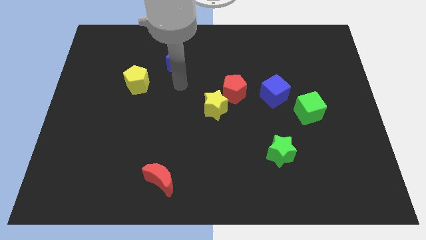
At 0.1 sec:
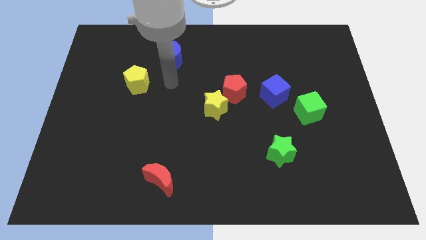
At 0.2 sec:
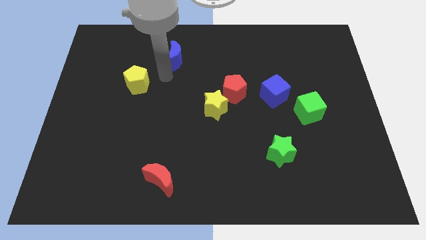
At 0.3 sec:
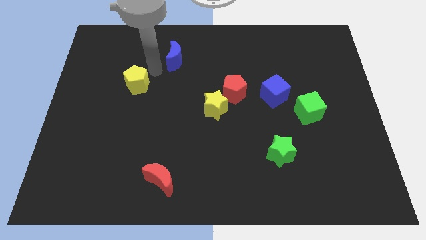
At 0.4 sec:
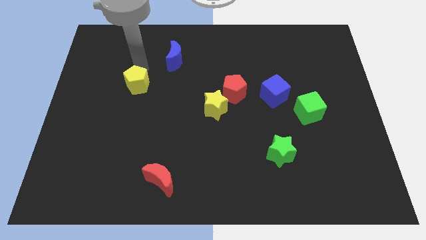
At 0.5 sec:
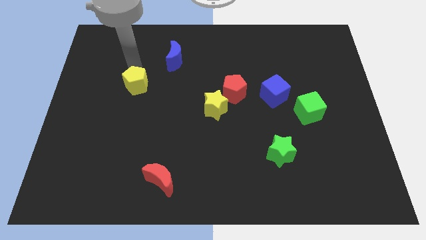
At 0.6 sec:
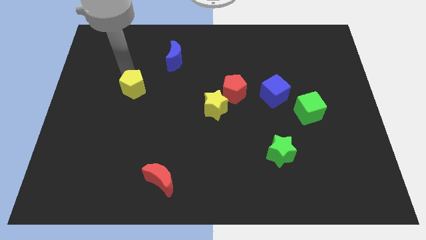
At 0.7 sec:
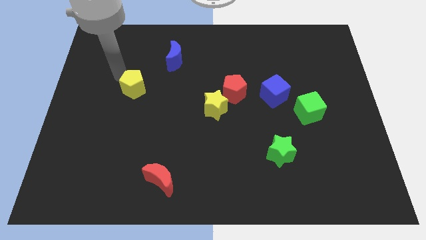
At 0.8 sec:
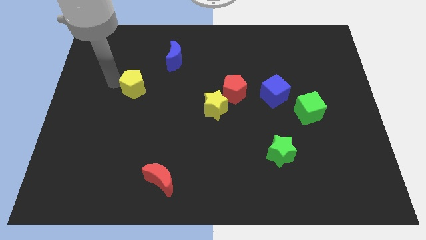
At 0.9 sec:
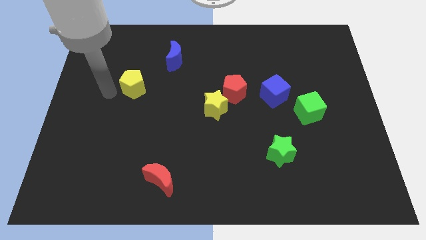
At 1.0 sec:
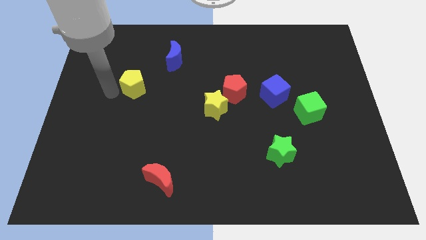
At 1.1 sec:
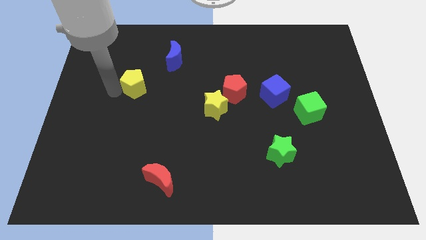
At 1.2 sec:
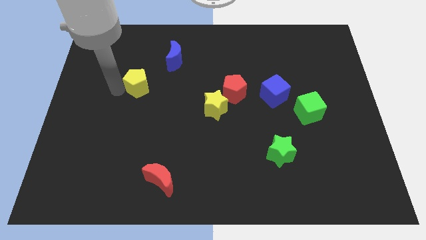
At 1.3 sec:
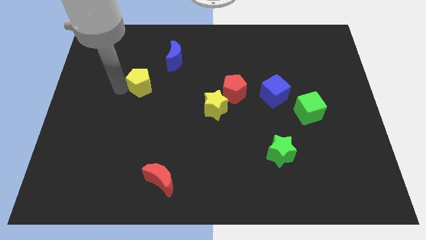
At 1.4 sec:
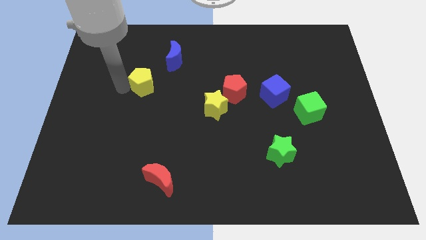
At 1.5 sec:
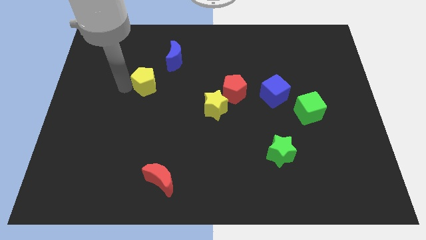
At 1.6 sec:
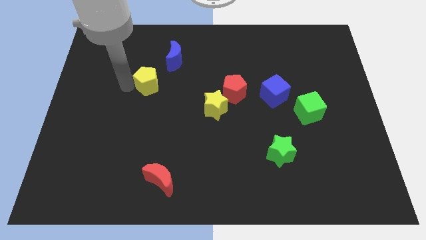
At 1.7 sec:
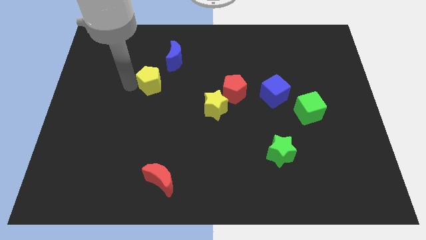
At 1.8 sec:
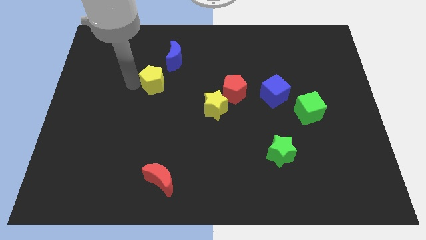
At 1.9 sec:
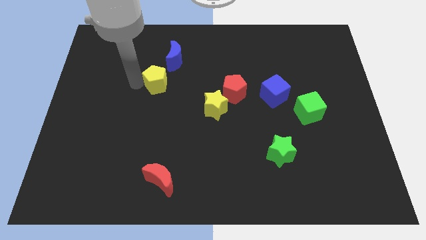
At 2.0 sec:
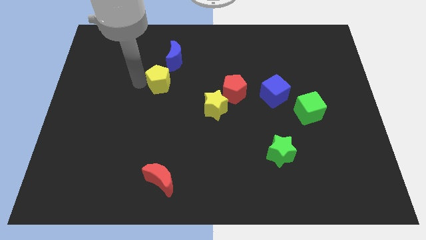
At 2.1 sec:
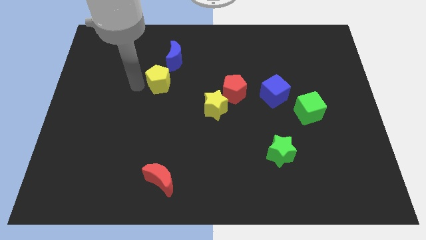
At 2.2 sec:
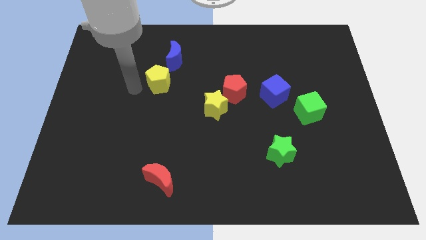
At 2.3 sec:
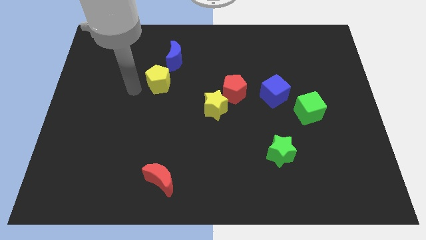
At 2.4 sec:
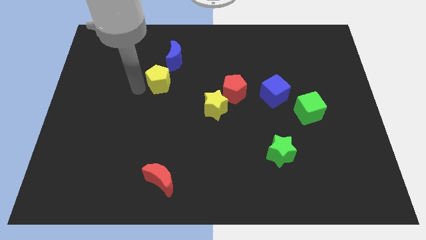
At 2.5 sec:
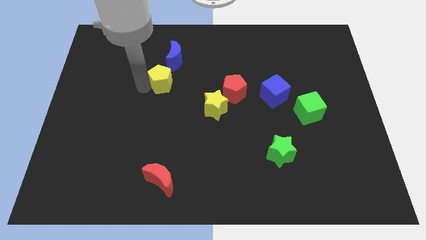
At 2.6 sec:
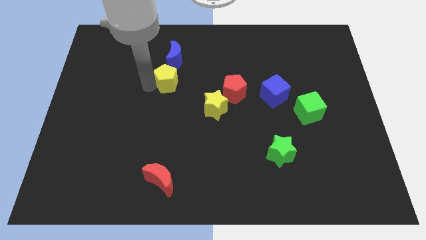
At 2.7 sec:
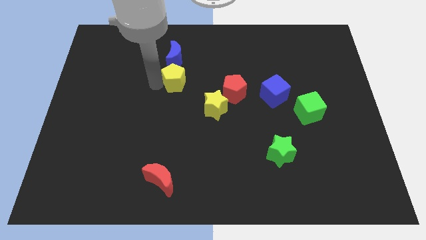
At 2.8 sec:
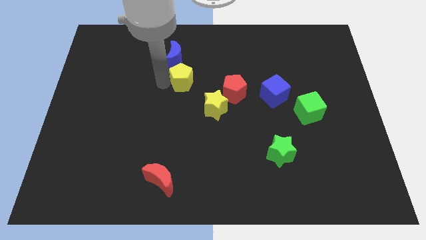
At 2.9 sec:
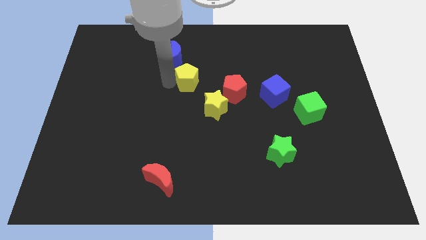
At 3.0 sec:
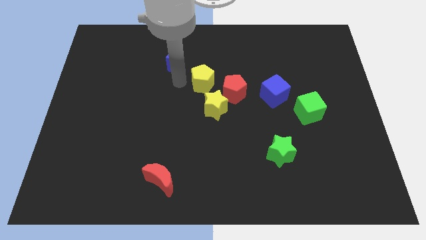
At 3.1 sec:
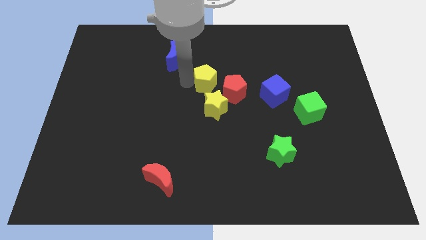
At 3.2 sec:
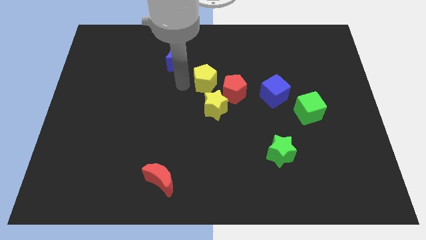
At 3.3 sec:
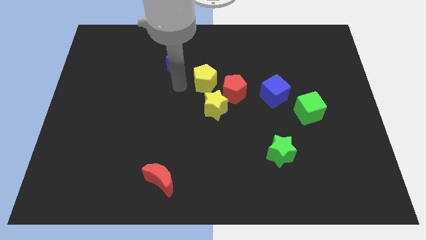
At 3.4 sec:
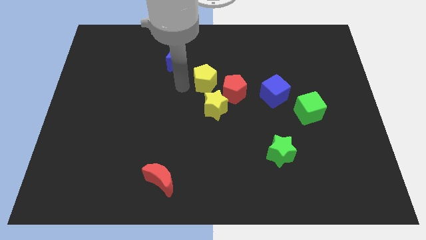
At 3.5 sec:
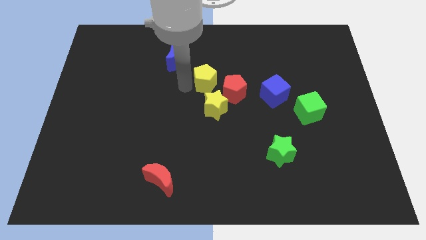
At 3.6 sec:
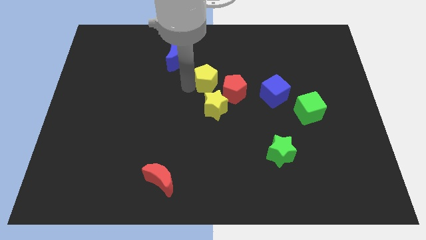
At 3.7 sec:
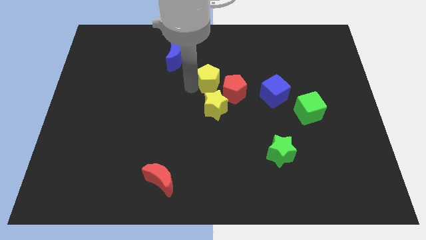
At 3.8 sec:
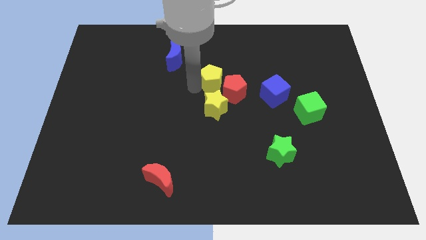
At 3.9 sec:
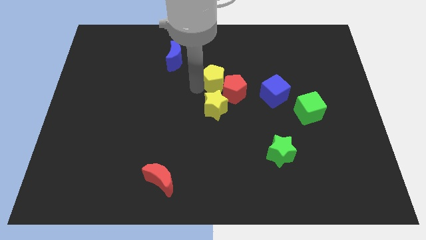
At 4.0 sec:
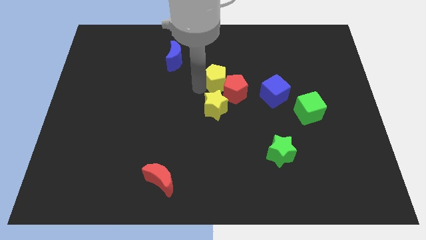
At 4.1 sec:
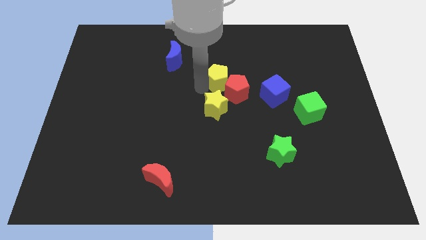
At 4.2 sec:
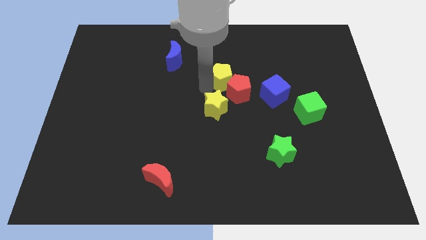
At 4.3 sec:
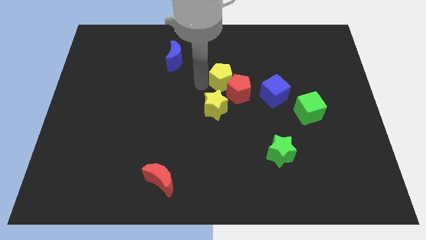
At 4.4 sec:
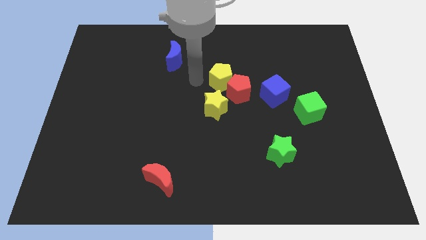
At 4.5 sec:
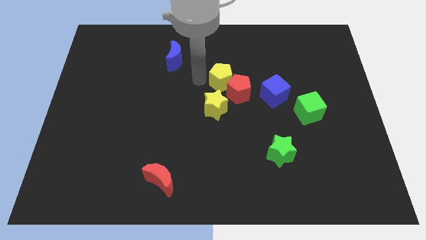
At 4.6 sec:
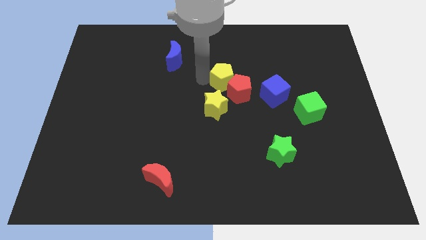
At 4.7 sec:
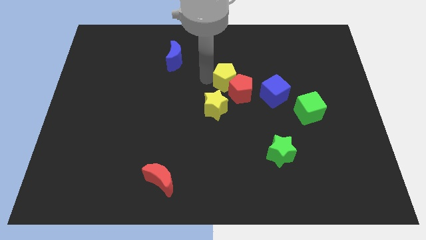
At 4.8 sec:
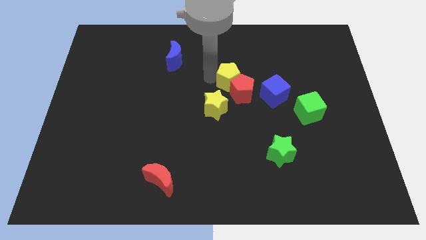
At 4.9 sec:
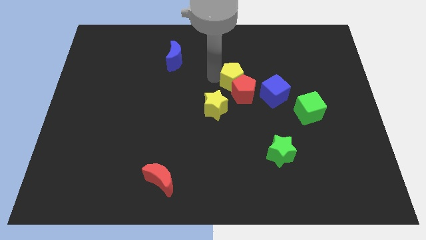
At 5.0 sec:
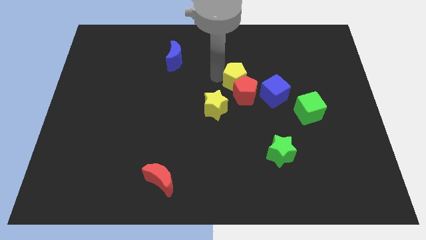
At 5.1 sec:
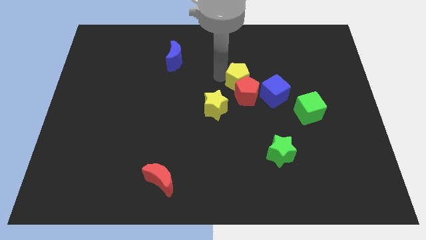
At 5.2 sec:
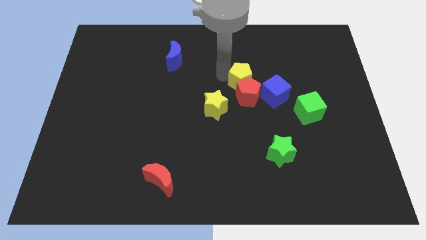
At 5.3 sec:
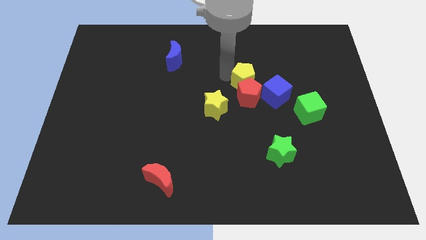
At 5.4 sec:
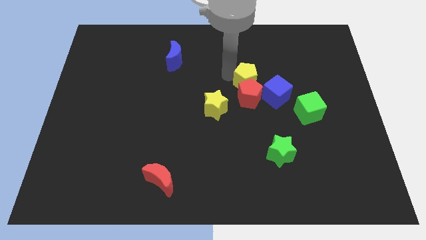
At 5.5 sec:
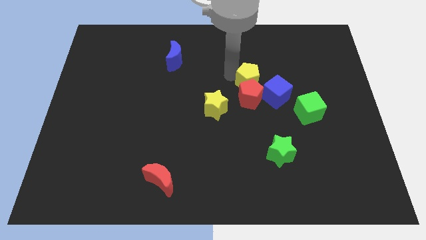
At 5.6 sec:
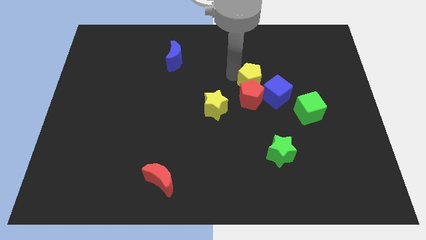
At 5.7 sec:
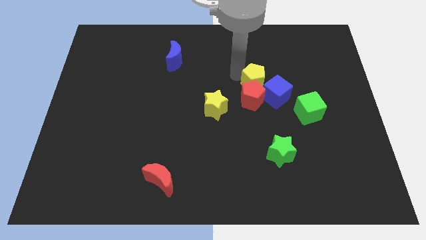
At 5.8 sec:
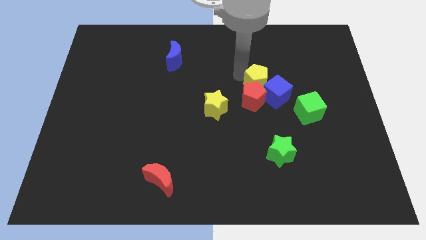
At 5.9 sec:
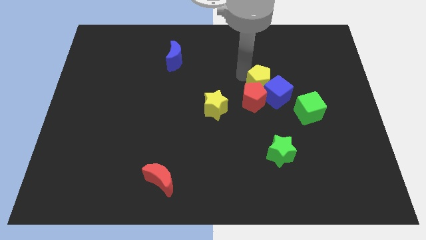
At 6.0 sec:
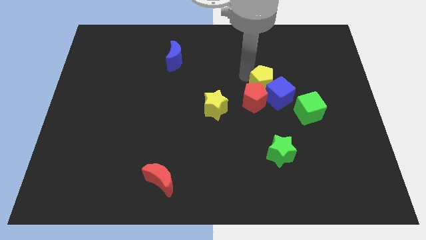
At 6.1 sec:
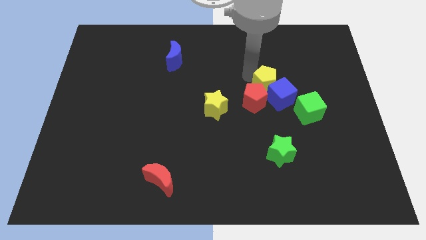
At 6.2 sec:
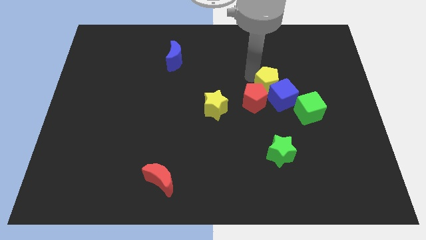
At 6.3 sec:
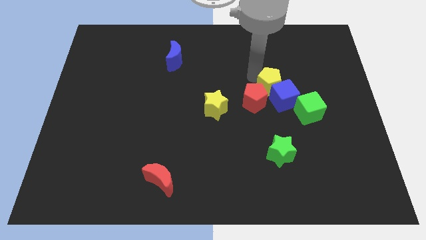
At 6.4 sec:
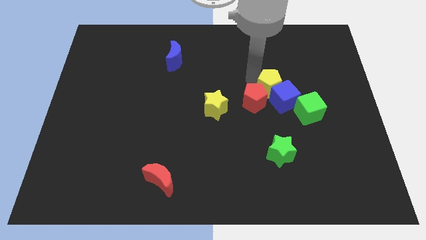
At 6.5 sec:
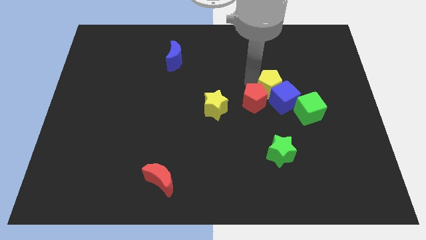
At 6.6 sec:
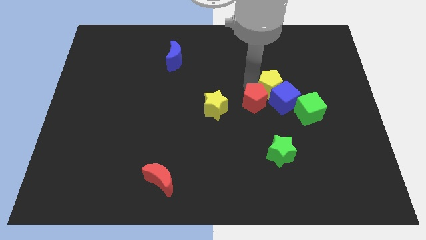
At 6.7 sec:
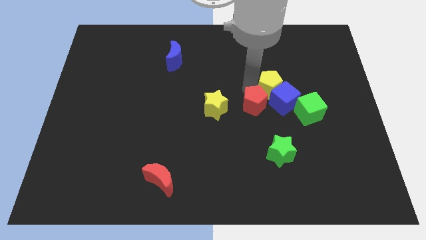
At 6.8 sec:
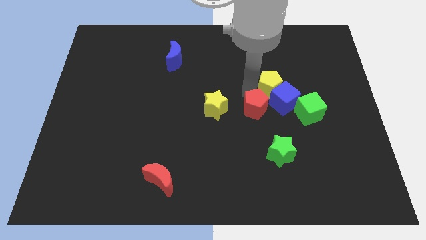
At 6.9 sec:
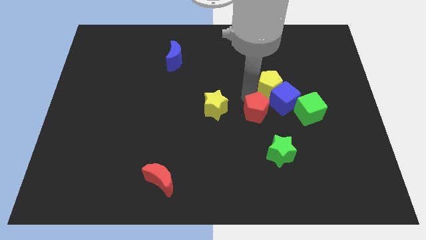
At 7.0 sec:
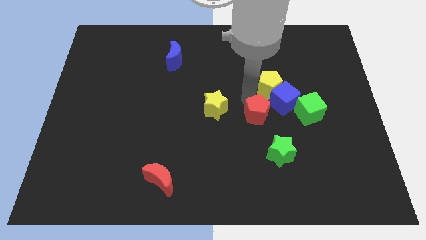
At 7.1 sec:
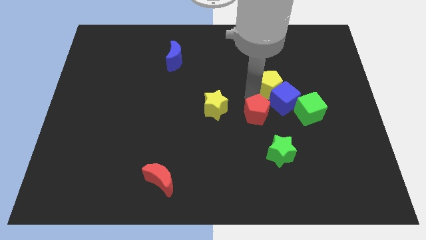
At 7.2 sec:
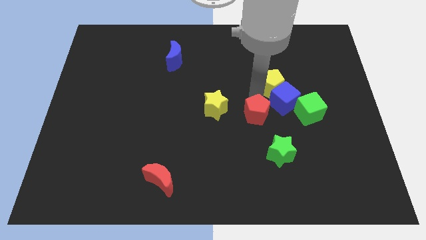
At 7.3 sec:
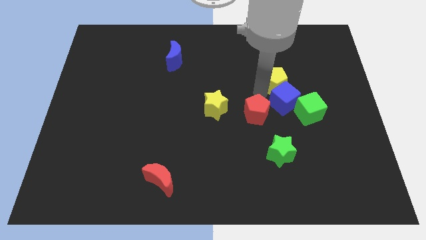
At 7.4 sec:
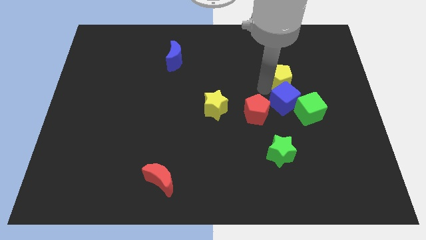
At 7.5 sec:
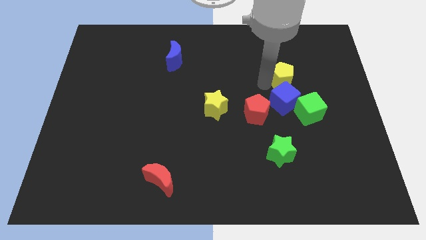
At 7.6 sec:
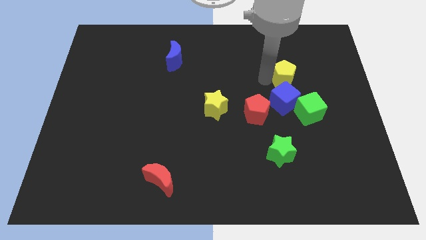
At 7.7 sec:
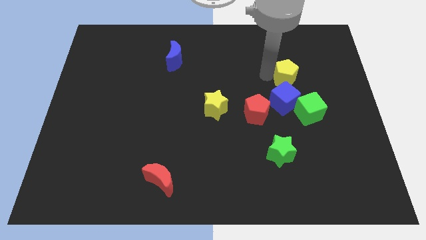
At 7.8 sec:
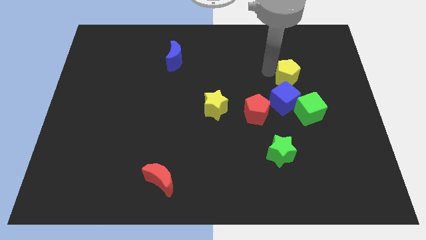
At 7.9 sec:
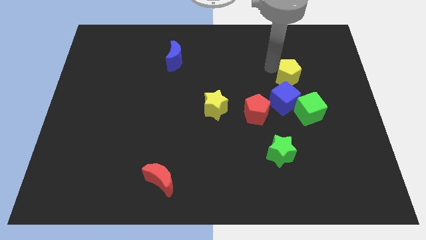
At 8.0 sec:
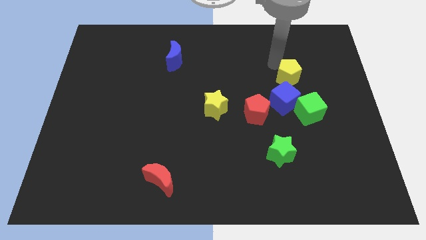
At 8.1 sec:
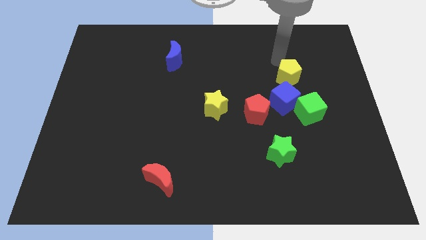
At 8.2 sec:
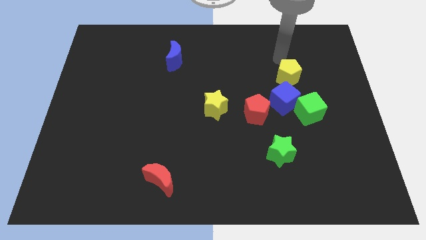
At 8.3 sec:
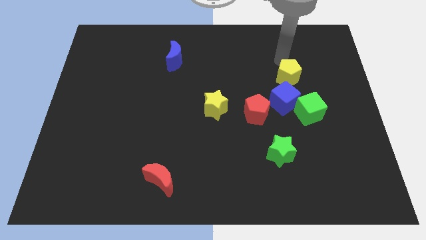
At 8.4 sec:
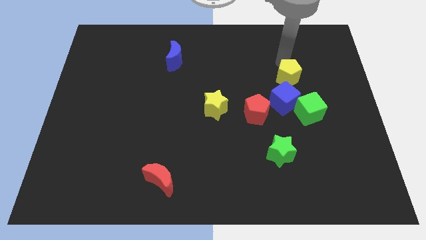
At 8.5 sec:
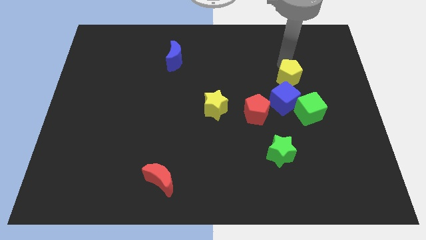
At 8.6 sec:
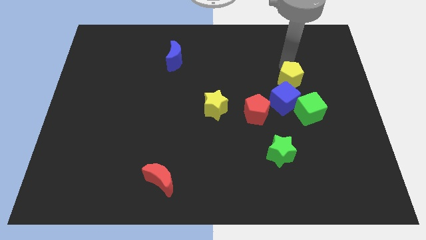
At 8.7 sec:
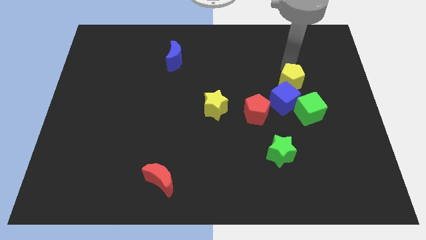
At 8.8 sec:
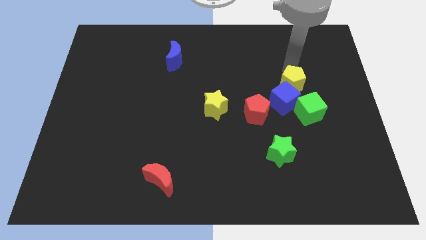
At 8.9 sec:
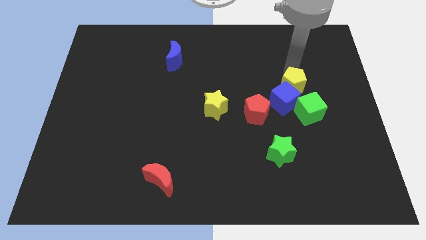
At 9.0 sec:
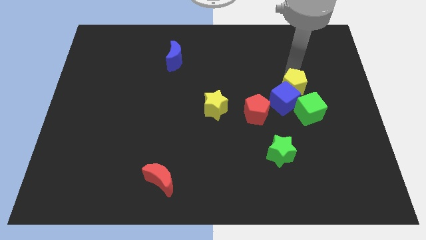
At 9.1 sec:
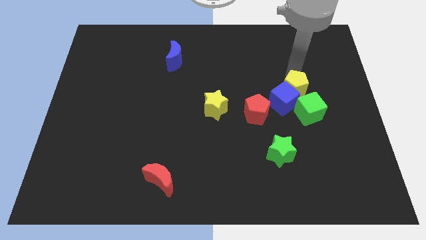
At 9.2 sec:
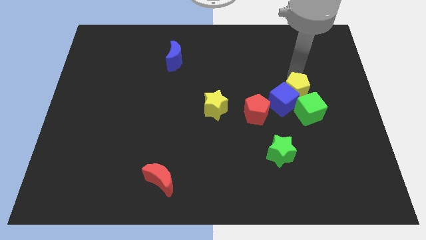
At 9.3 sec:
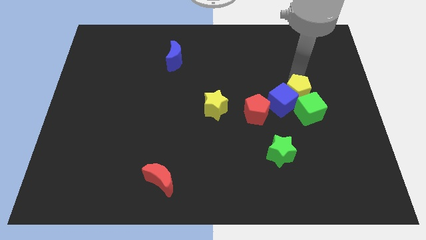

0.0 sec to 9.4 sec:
slide the yellow pentagon next to the green cube
